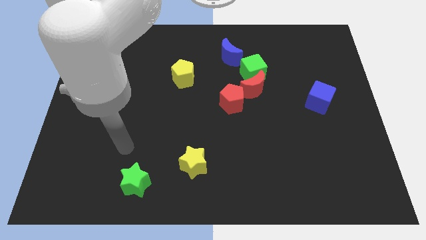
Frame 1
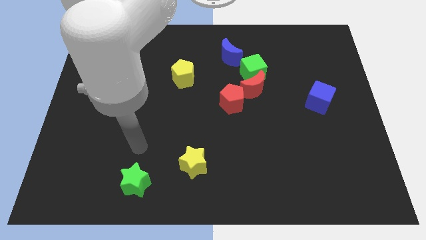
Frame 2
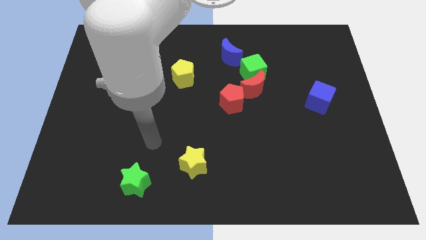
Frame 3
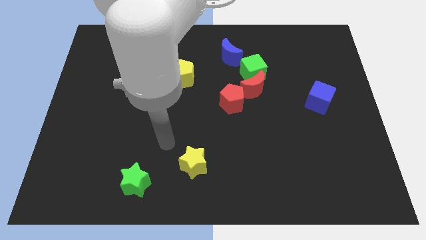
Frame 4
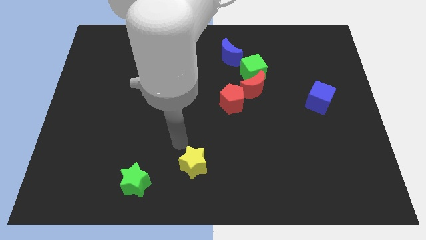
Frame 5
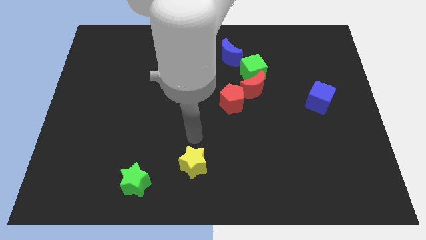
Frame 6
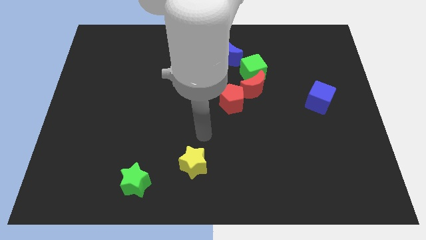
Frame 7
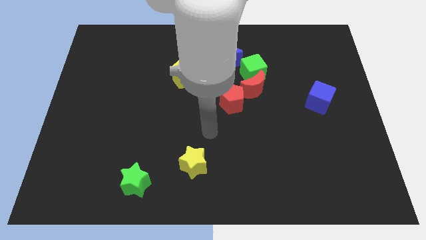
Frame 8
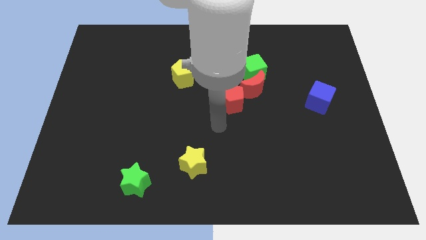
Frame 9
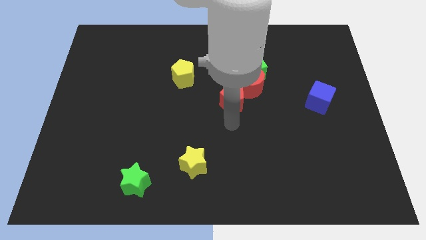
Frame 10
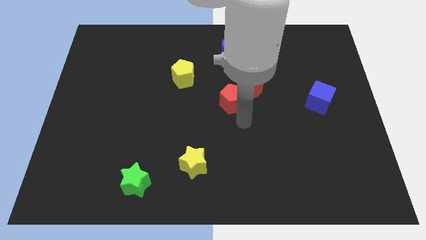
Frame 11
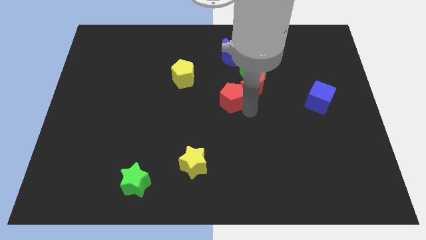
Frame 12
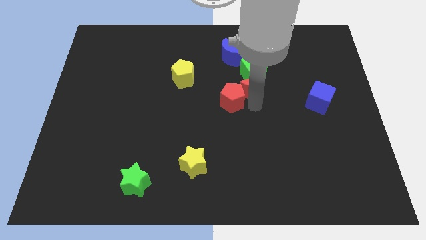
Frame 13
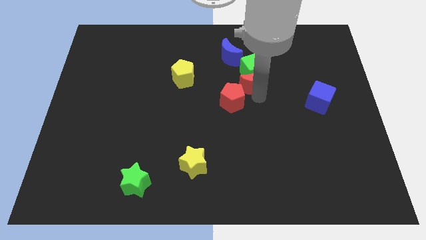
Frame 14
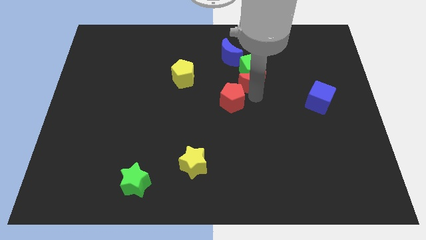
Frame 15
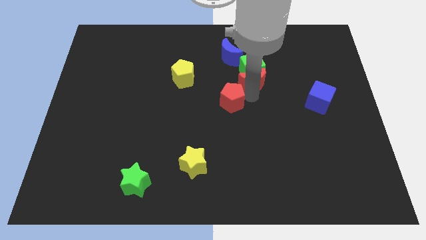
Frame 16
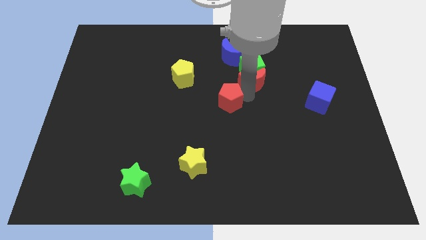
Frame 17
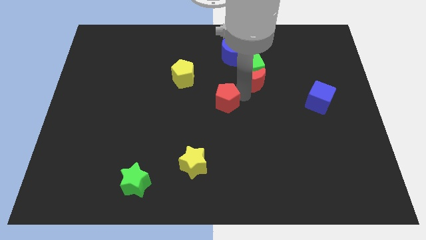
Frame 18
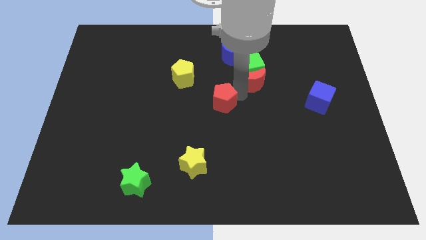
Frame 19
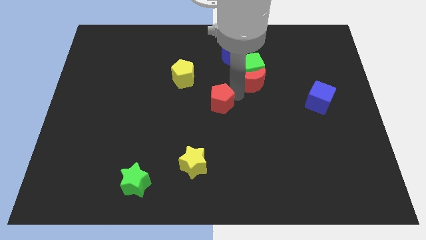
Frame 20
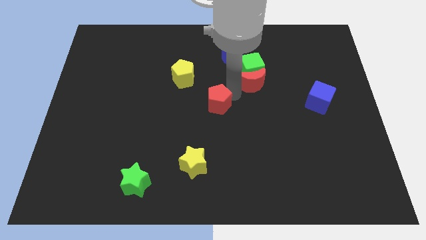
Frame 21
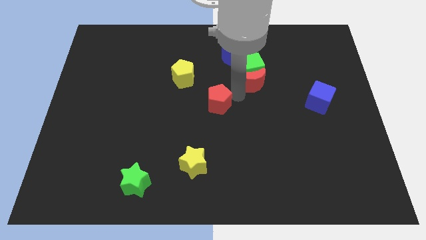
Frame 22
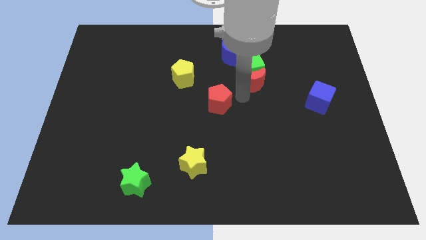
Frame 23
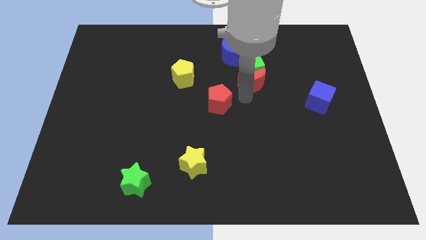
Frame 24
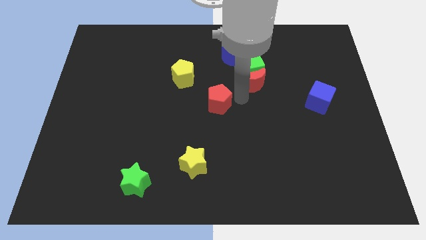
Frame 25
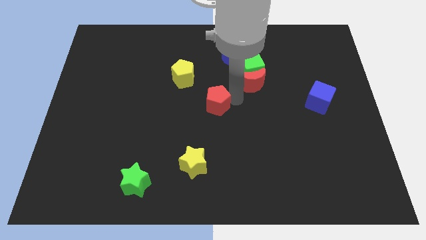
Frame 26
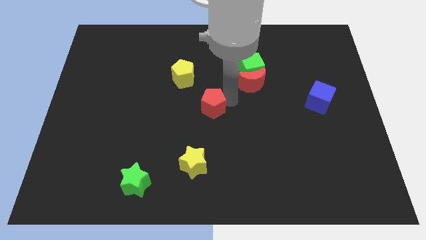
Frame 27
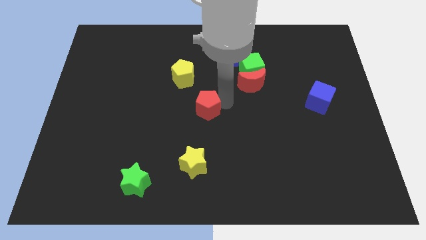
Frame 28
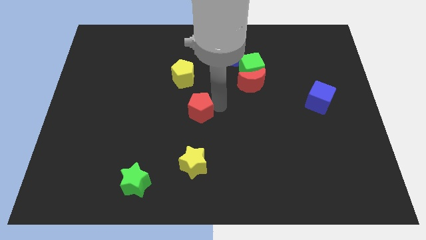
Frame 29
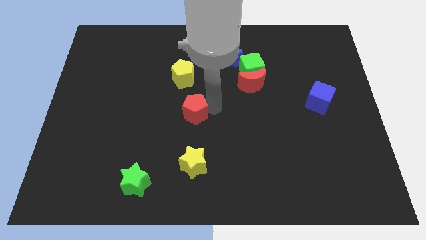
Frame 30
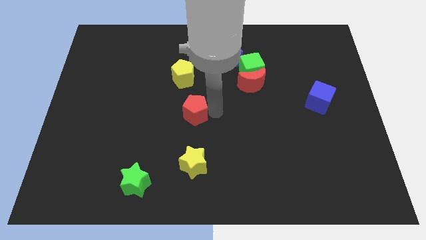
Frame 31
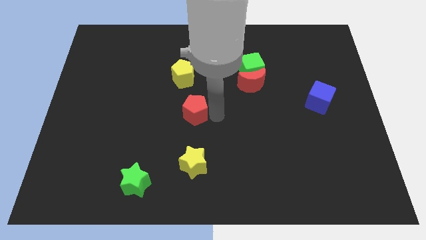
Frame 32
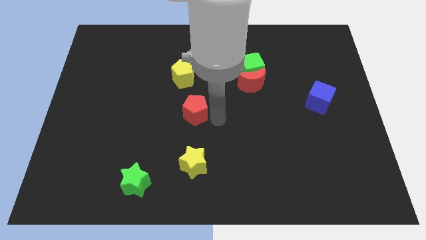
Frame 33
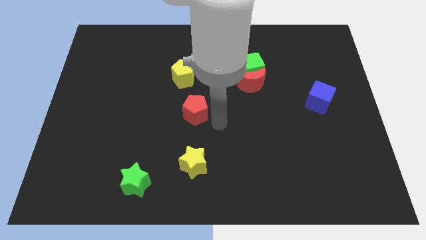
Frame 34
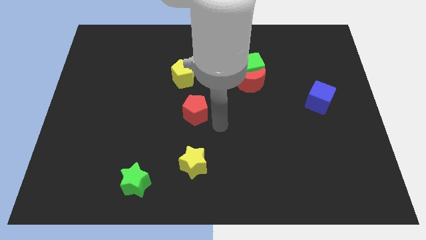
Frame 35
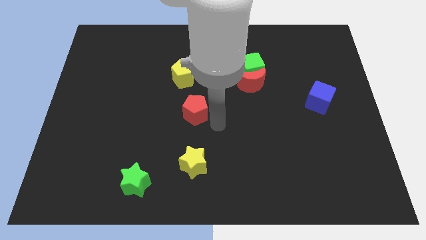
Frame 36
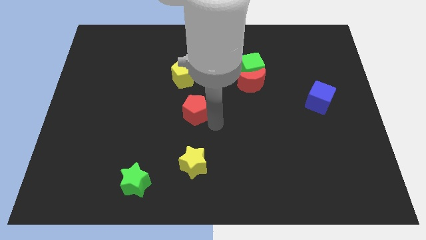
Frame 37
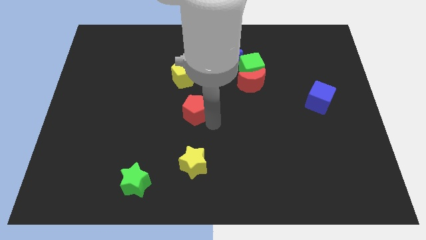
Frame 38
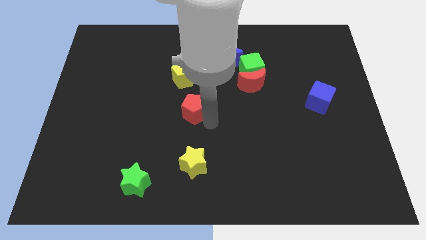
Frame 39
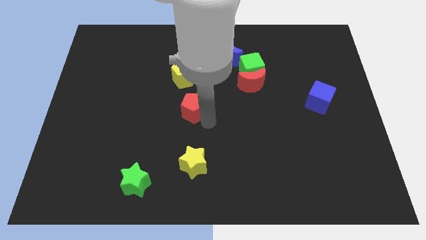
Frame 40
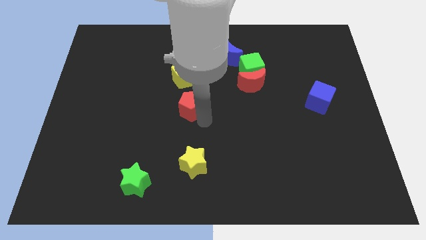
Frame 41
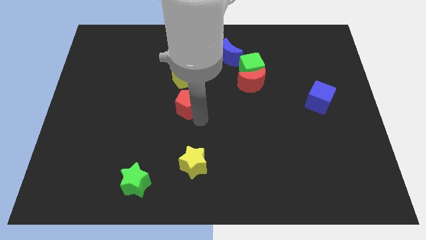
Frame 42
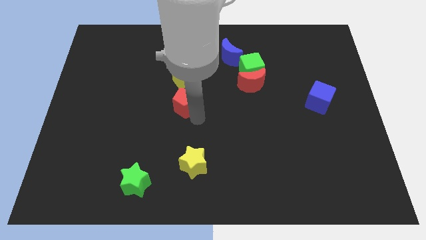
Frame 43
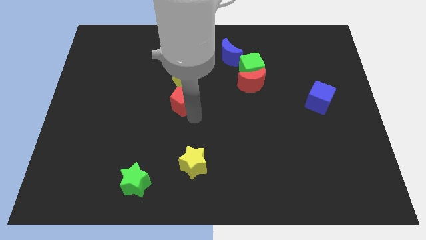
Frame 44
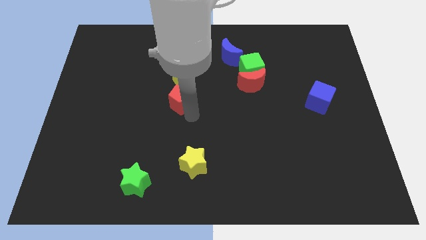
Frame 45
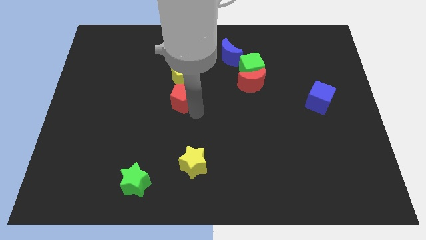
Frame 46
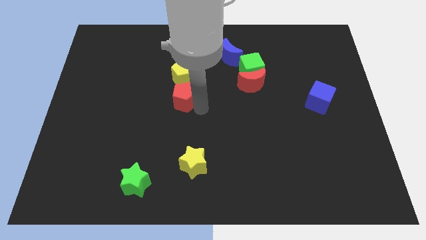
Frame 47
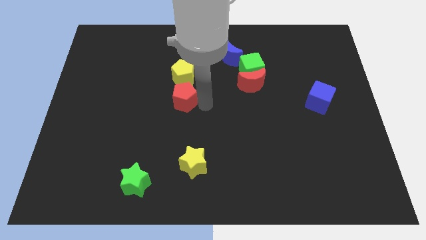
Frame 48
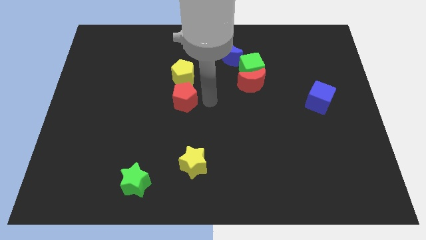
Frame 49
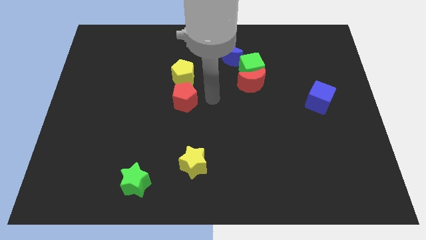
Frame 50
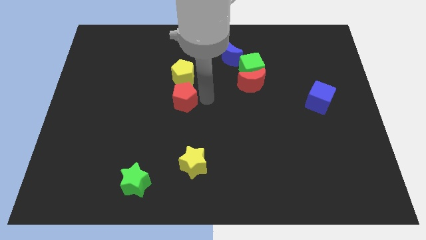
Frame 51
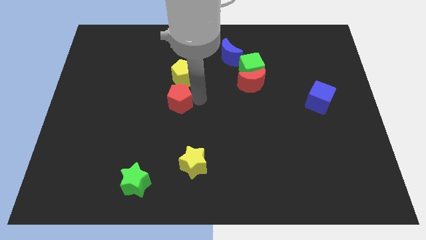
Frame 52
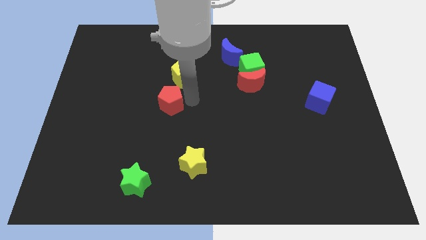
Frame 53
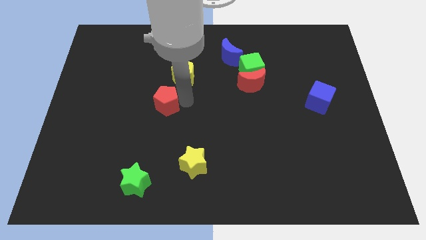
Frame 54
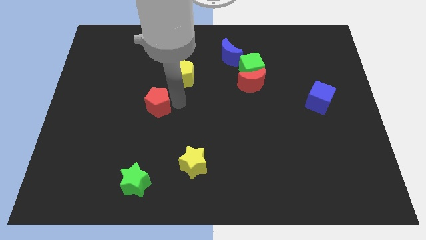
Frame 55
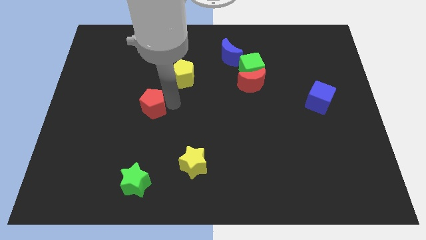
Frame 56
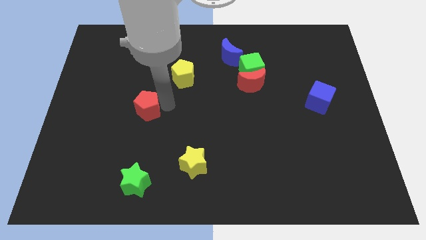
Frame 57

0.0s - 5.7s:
slide the red pentagon to the left

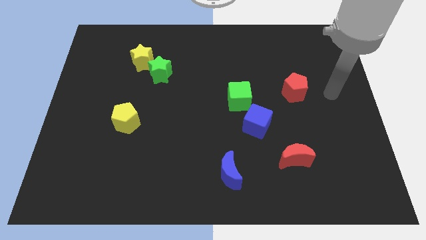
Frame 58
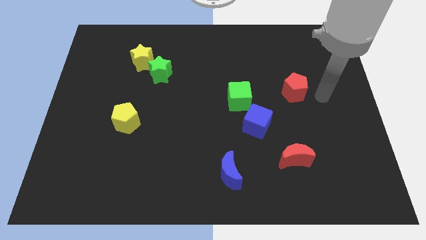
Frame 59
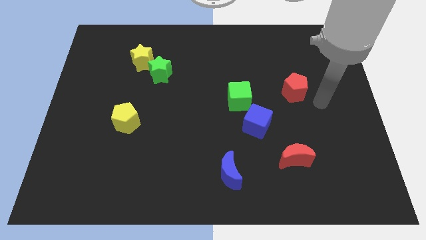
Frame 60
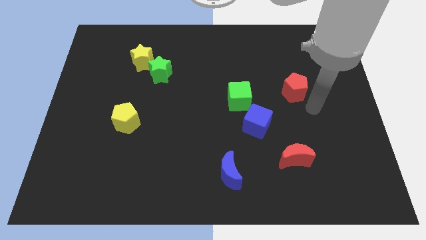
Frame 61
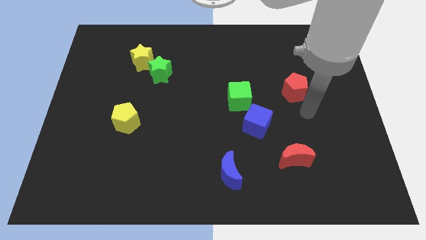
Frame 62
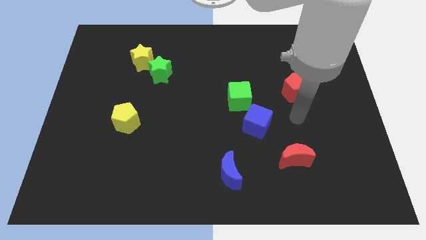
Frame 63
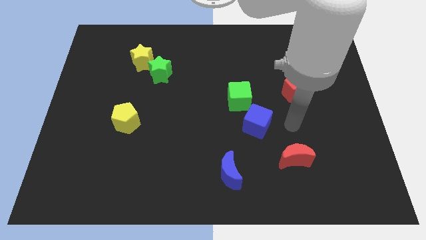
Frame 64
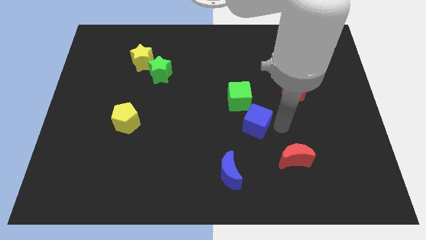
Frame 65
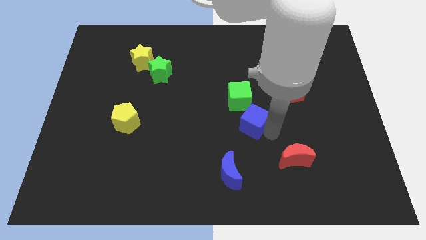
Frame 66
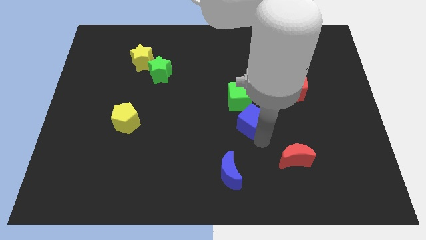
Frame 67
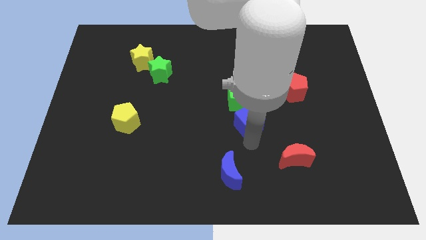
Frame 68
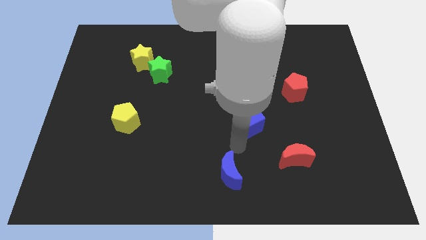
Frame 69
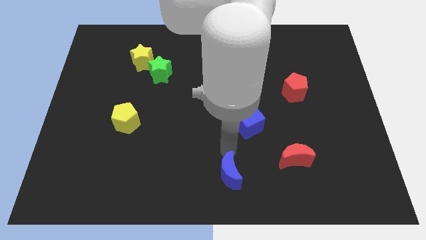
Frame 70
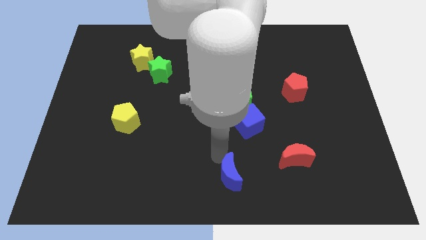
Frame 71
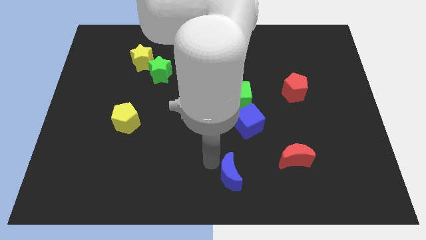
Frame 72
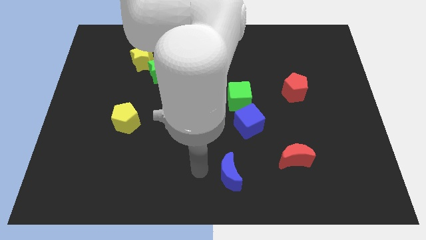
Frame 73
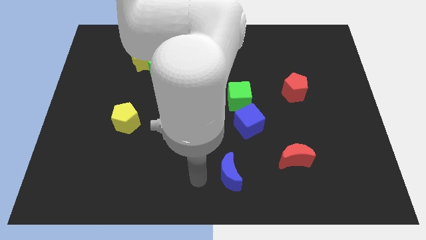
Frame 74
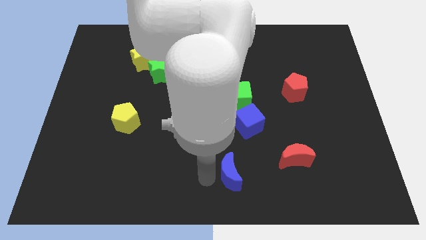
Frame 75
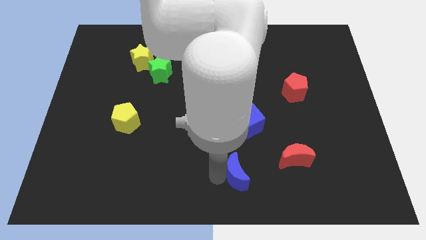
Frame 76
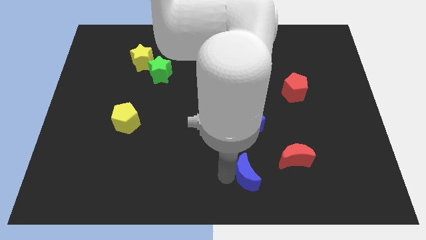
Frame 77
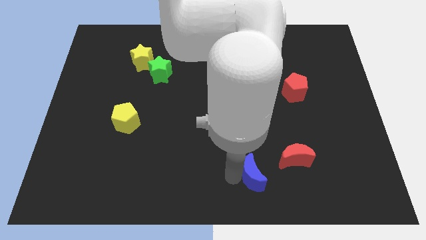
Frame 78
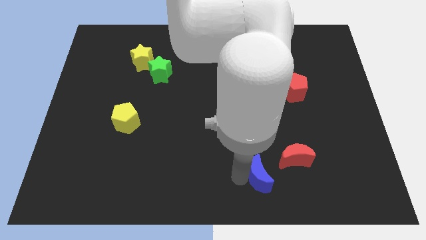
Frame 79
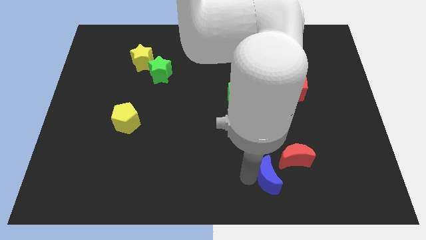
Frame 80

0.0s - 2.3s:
slide the blue moon a little to the right
